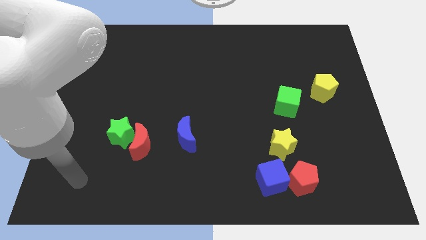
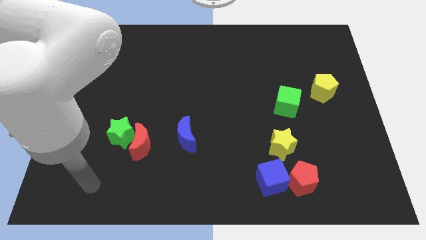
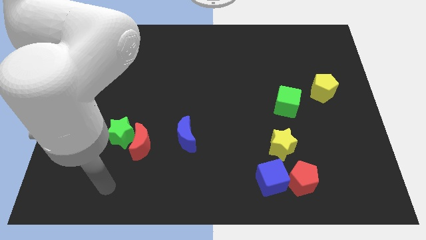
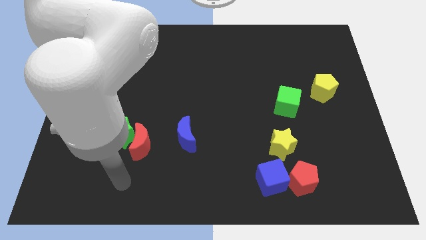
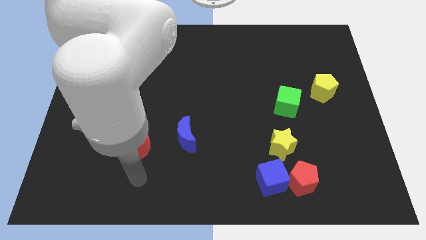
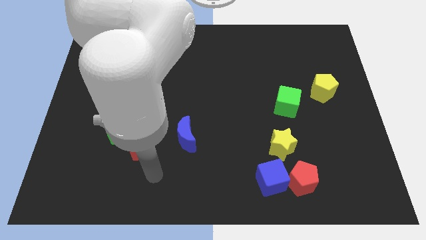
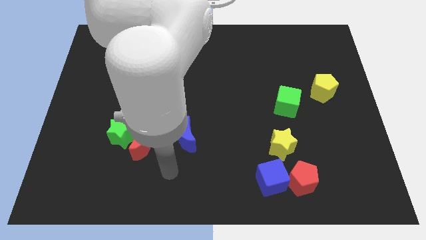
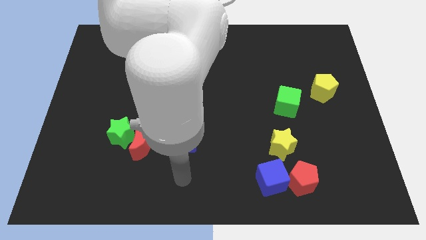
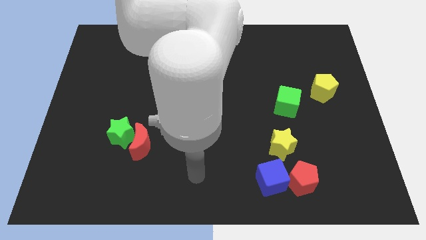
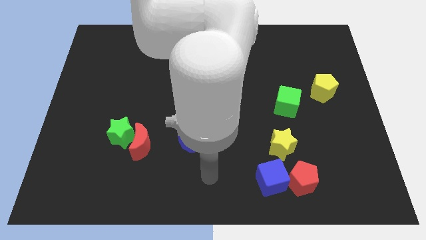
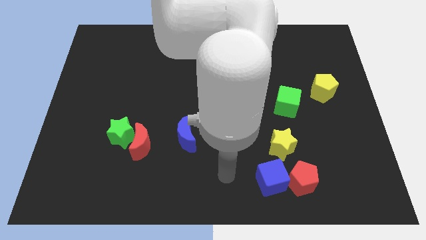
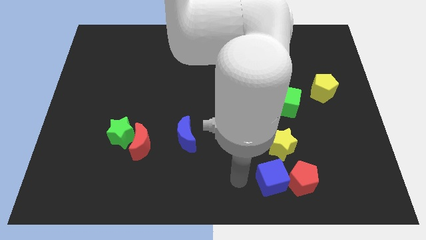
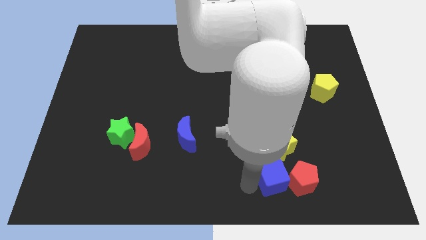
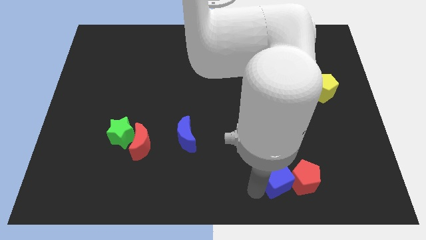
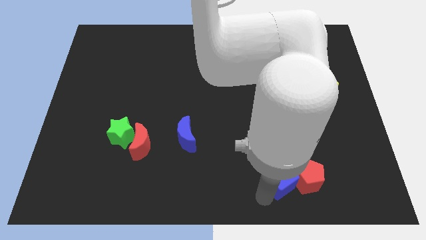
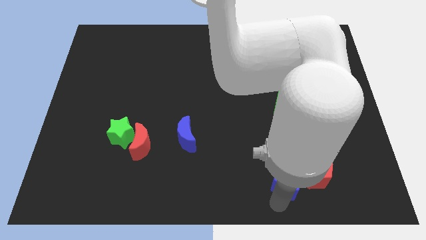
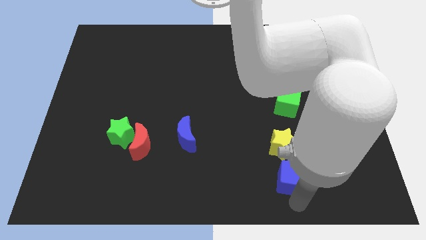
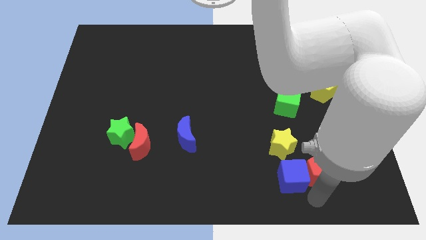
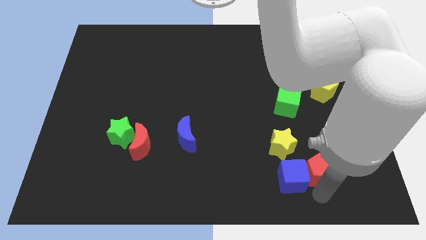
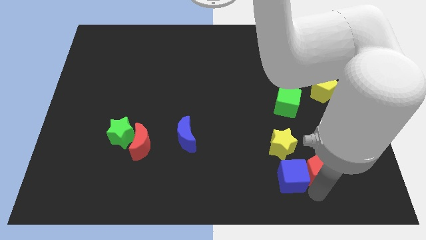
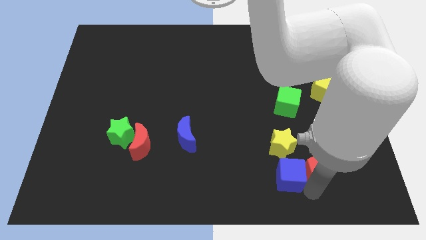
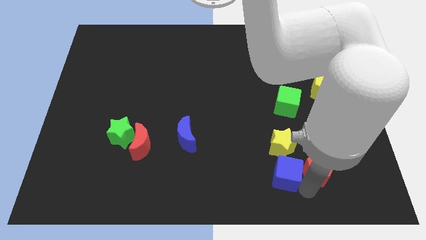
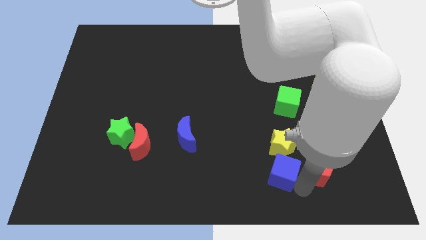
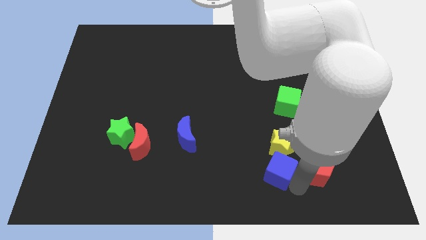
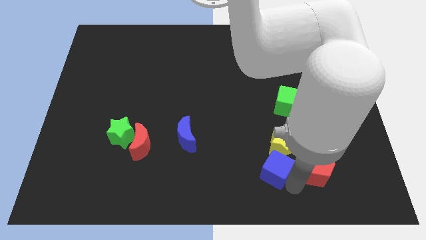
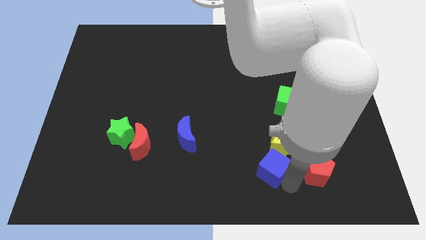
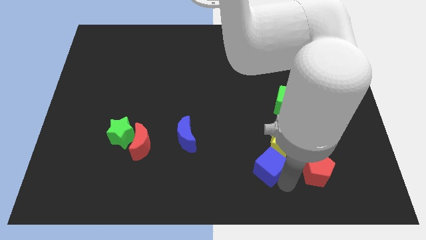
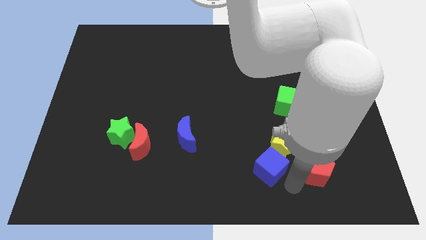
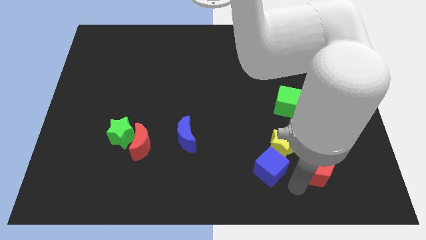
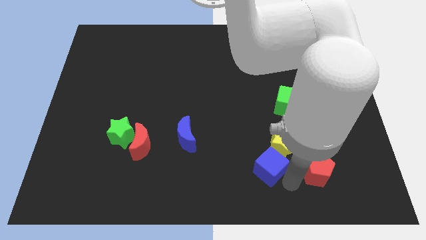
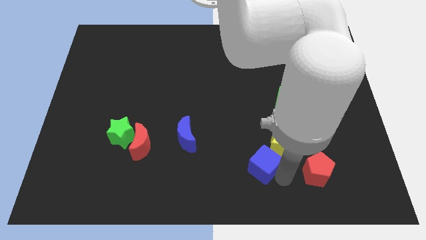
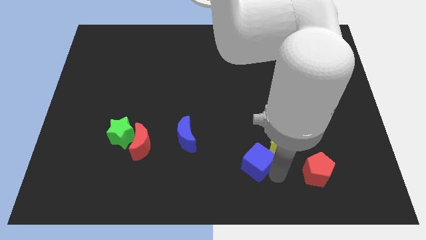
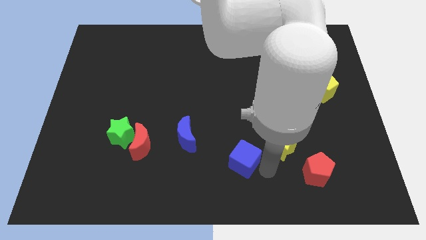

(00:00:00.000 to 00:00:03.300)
slightly slide the blue cube diagonally upwards and to the left

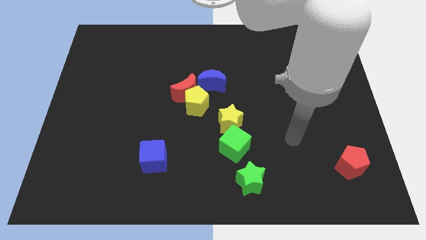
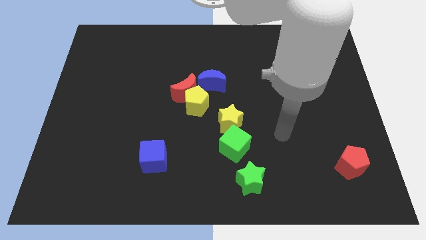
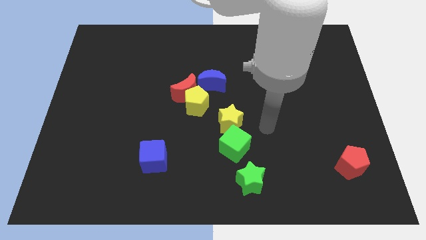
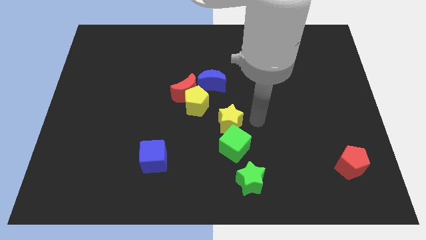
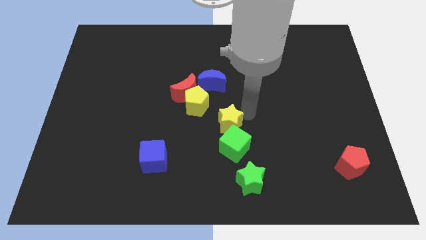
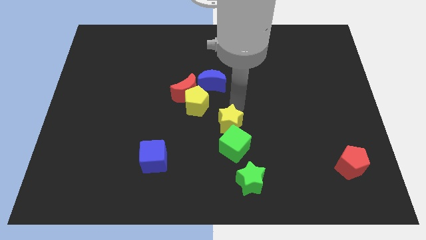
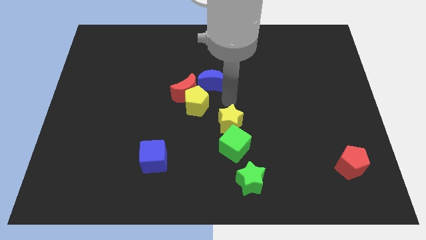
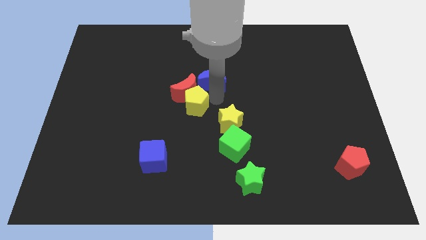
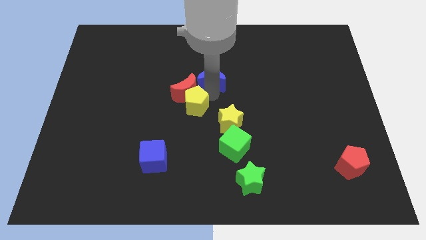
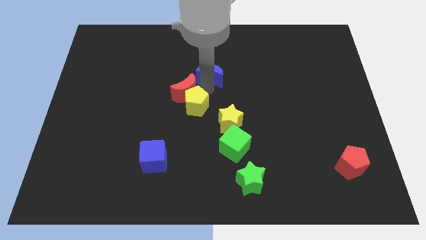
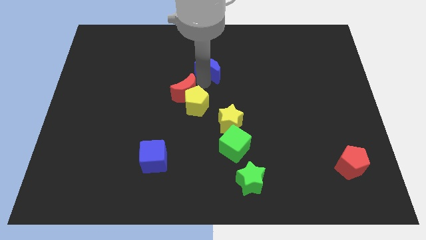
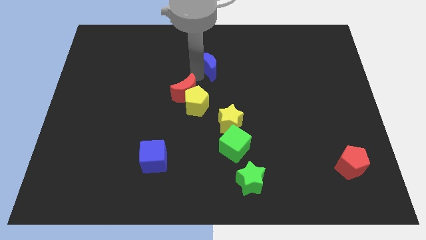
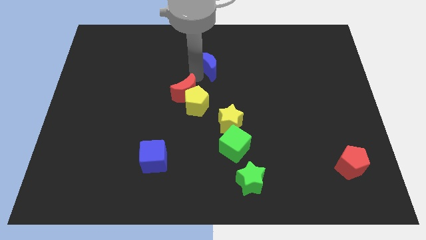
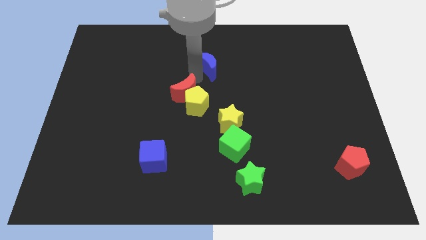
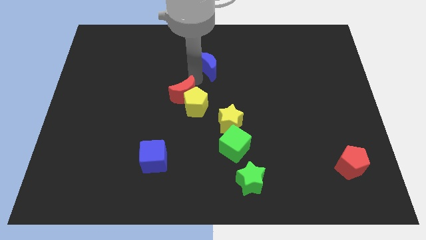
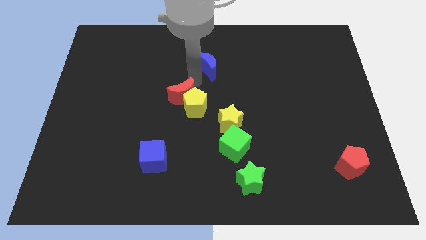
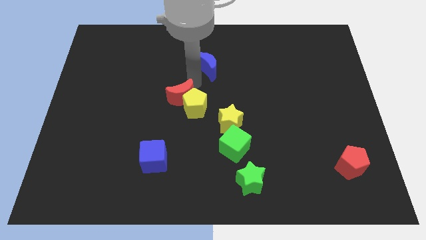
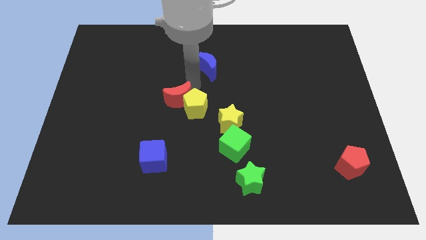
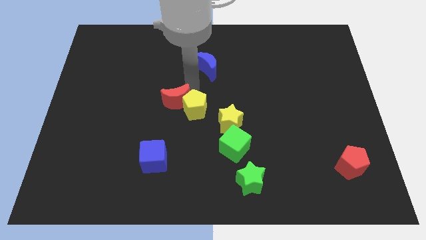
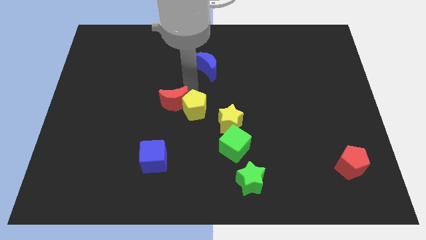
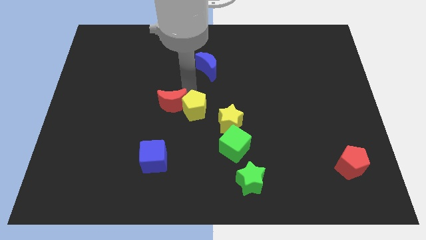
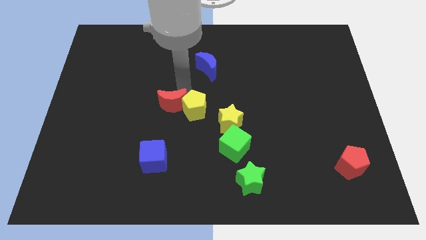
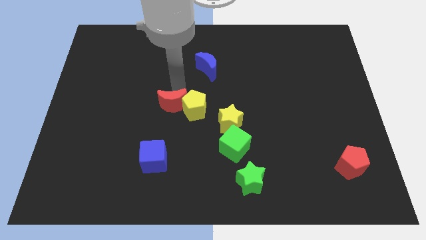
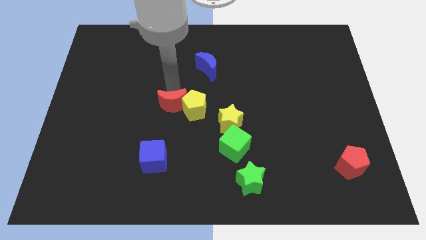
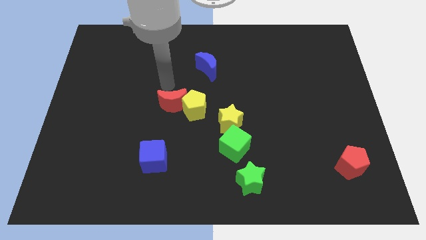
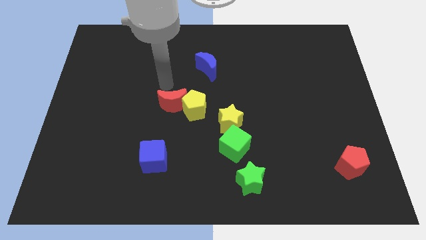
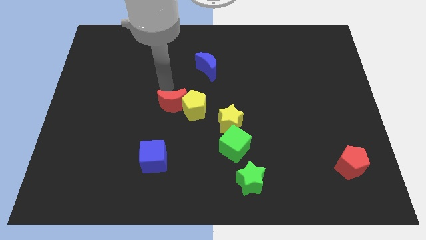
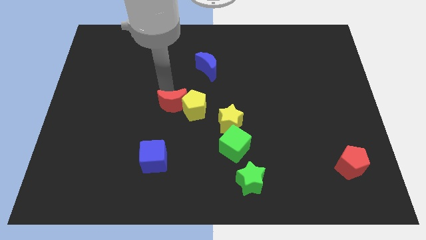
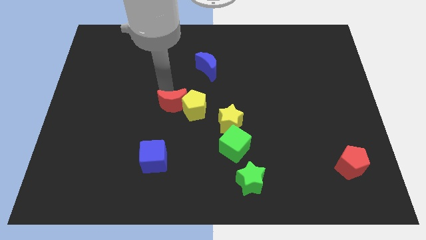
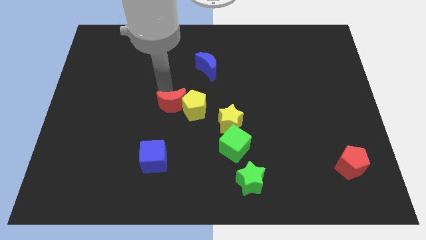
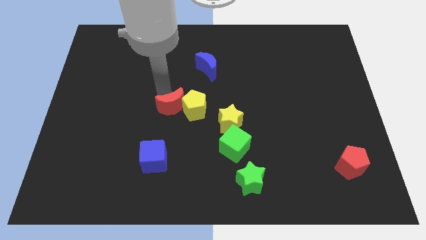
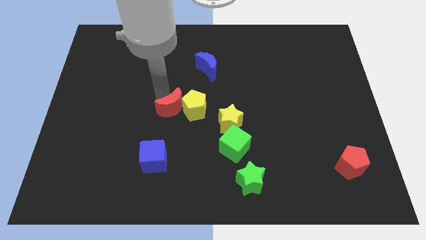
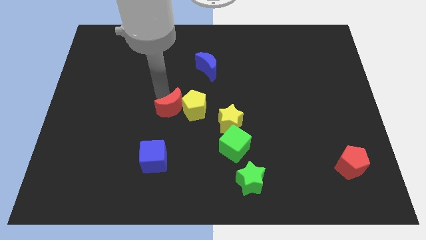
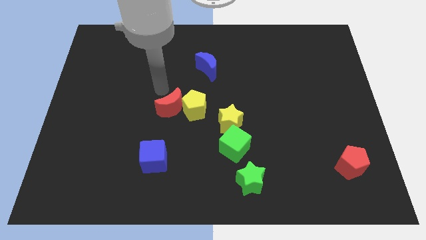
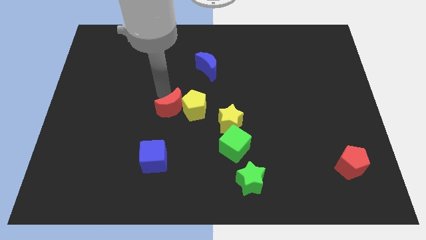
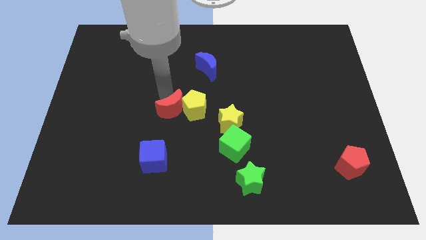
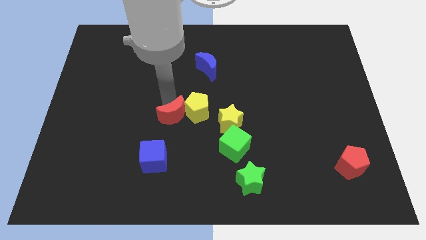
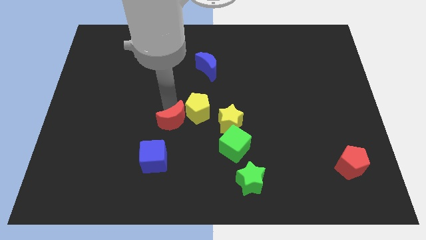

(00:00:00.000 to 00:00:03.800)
move the red moon down a little bit

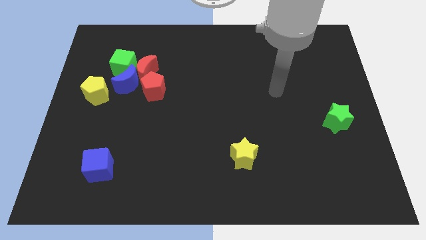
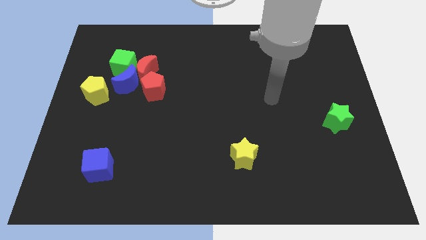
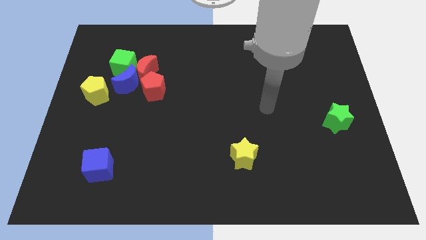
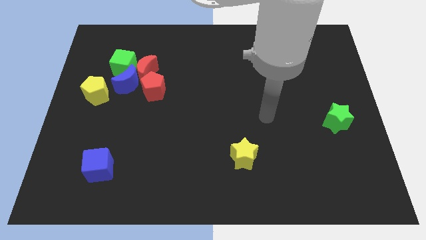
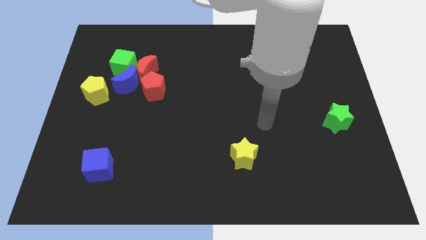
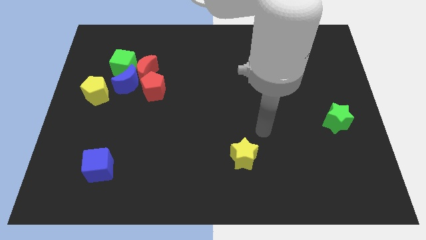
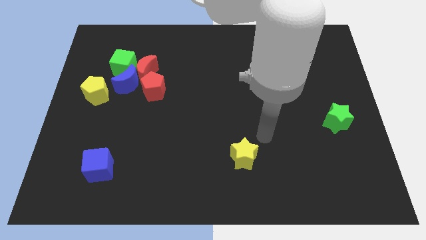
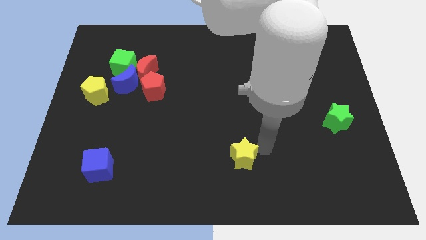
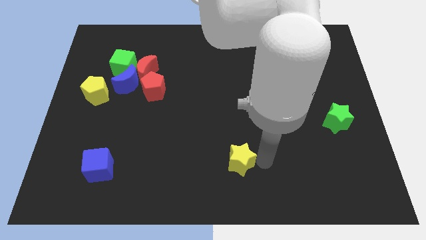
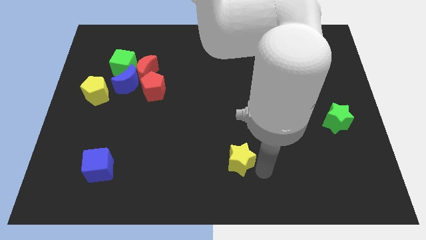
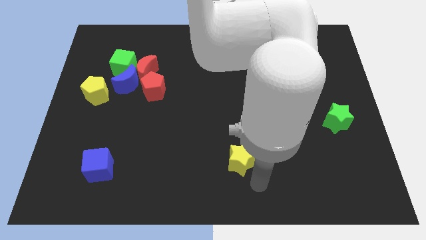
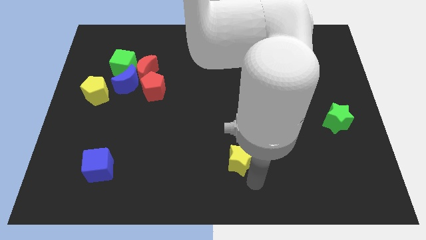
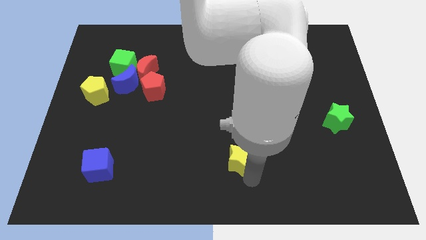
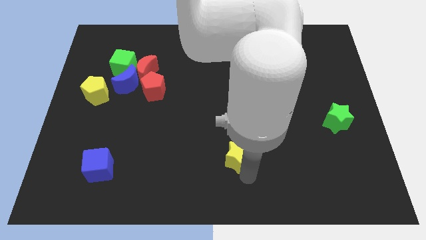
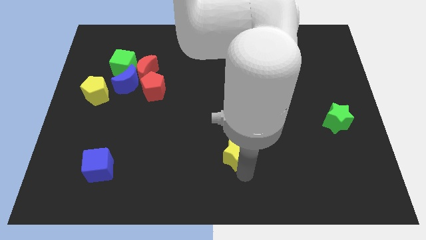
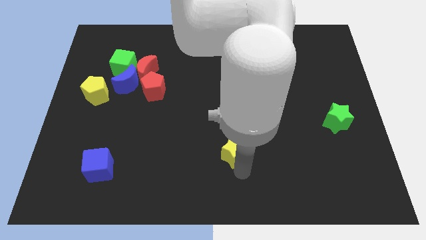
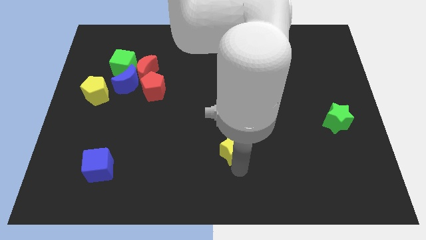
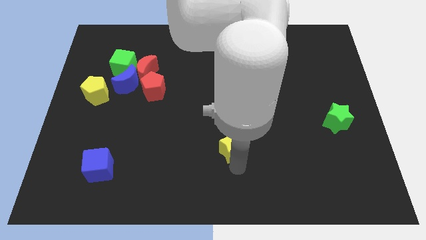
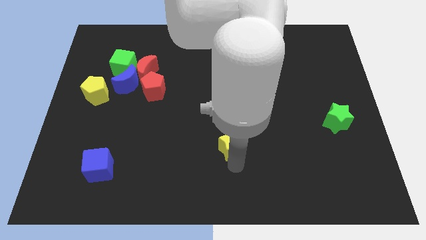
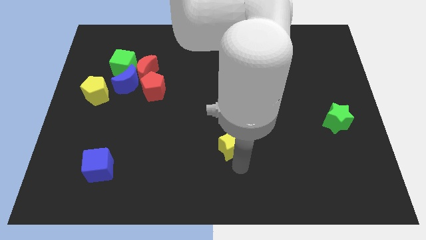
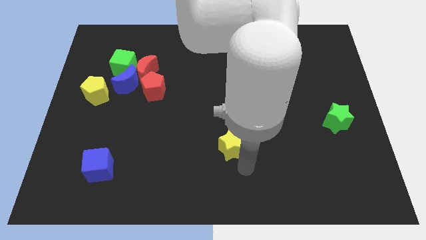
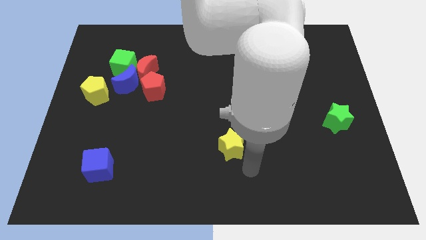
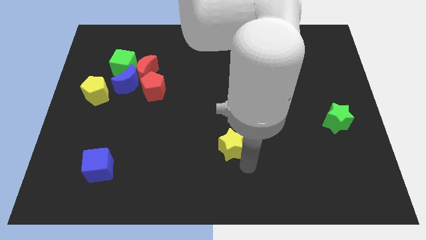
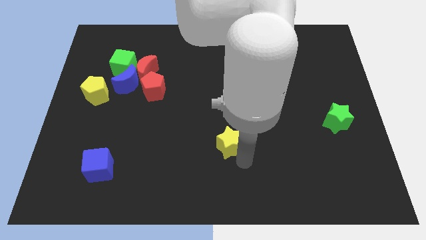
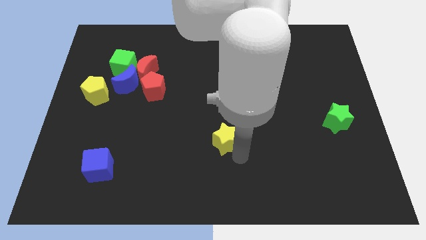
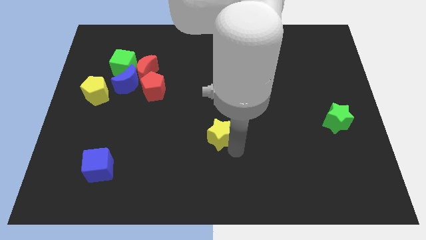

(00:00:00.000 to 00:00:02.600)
slightly move the yellow star up and left
